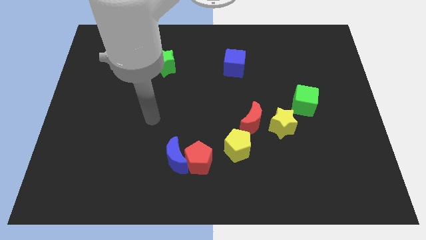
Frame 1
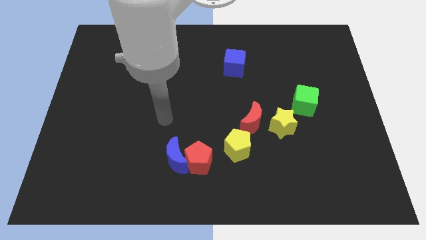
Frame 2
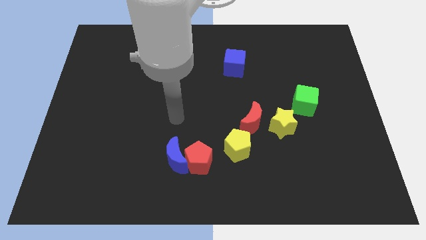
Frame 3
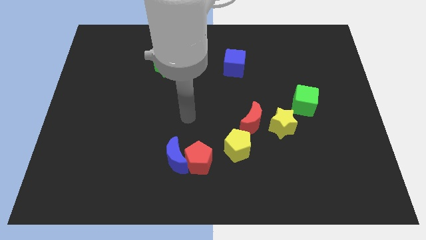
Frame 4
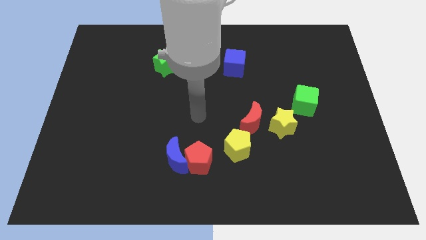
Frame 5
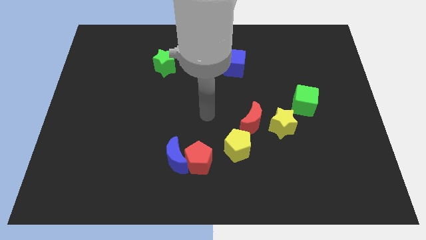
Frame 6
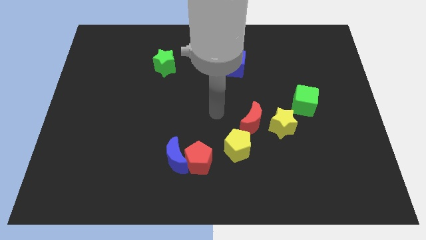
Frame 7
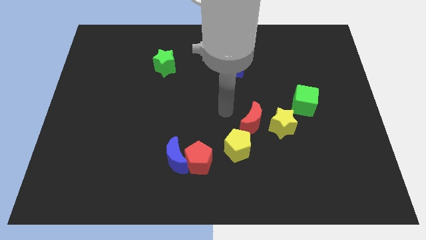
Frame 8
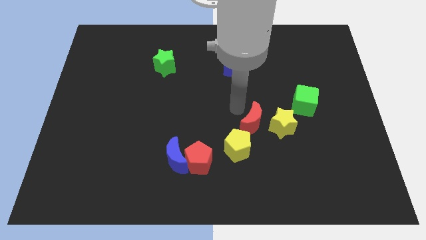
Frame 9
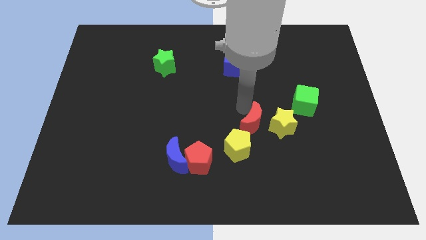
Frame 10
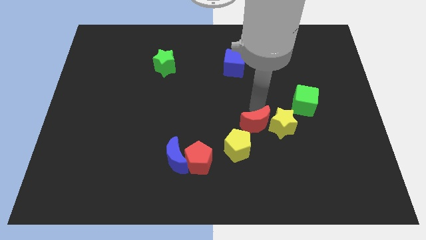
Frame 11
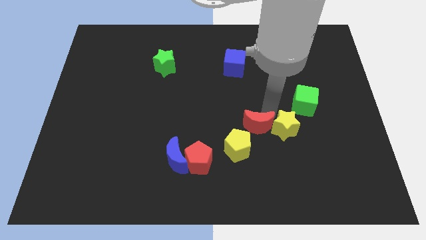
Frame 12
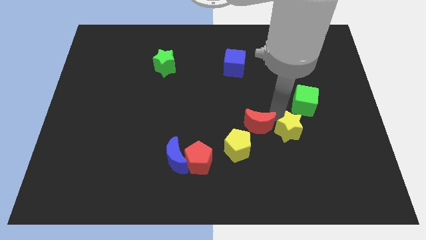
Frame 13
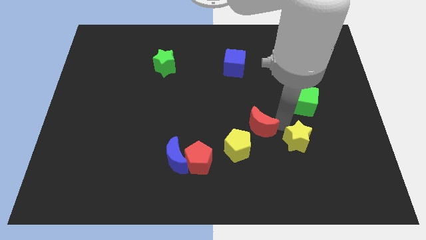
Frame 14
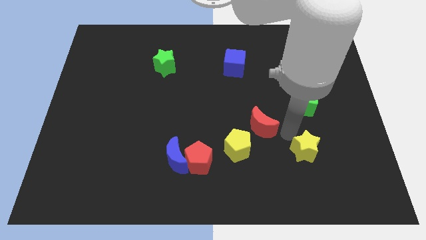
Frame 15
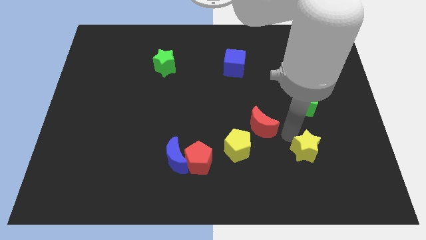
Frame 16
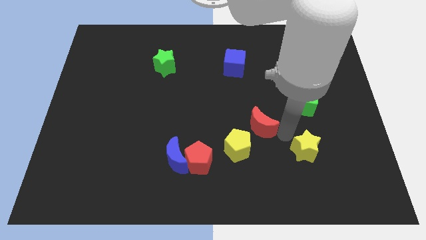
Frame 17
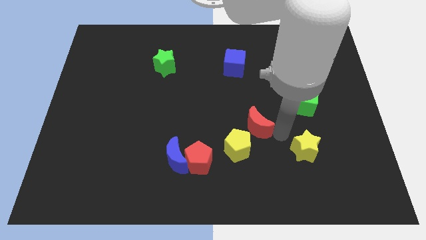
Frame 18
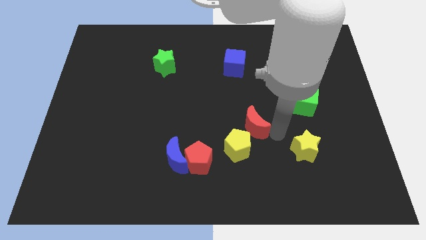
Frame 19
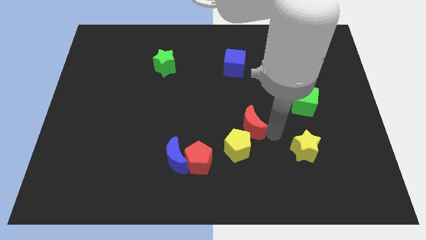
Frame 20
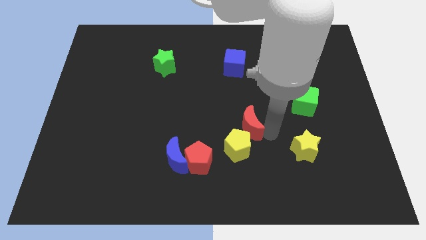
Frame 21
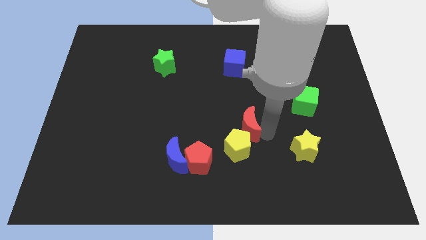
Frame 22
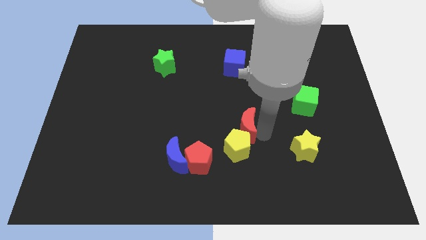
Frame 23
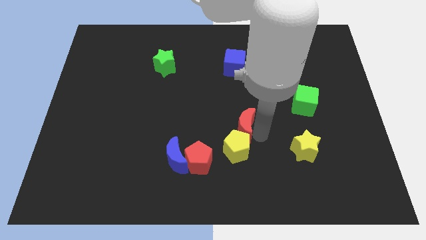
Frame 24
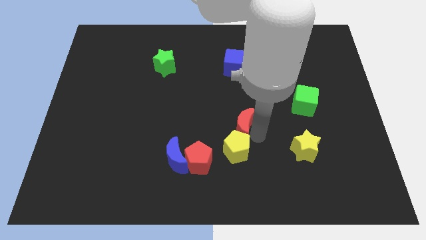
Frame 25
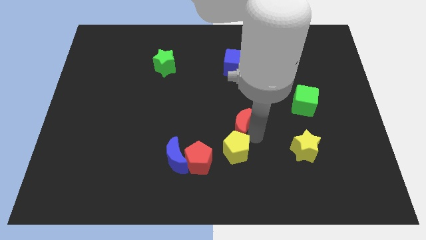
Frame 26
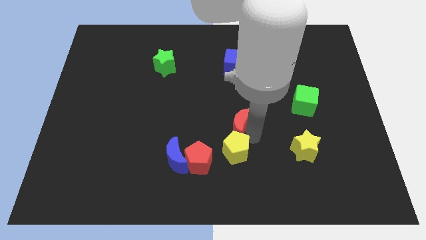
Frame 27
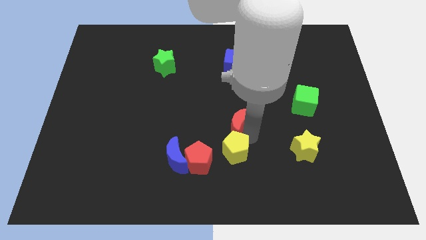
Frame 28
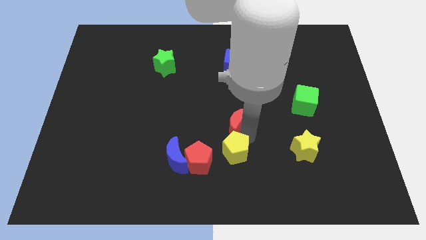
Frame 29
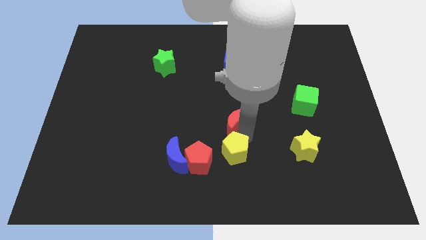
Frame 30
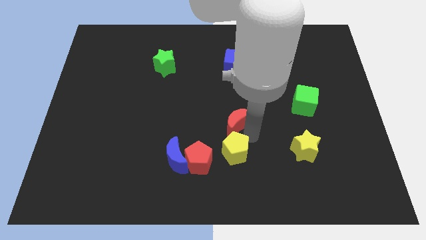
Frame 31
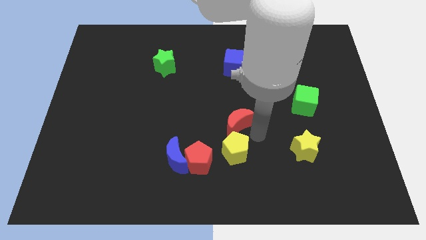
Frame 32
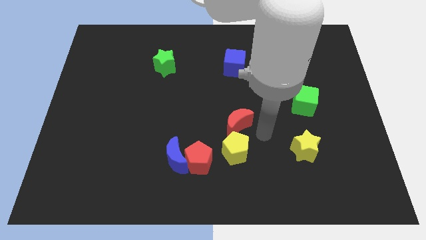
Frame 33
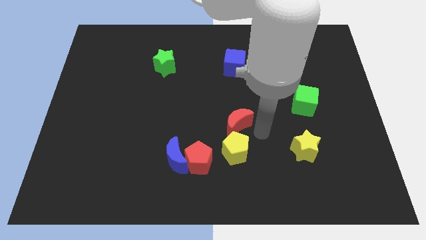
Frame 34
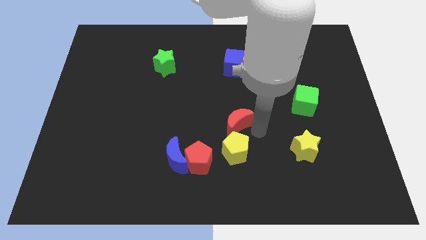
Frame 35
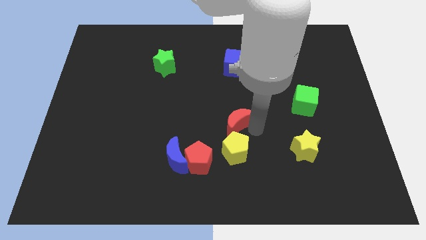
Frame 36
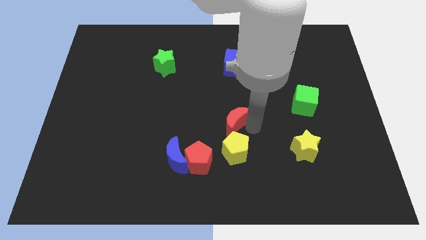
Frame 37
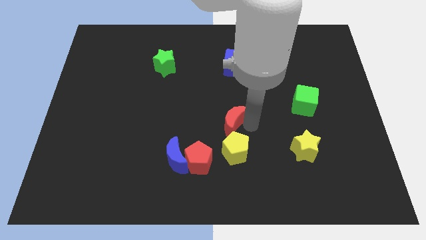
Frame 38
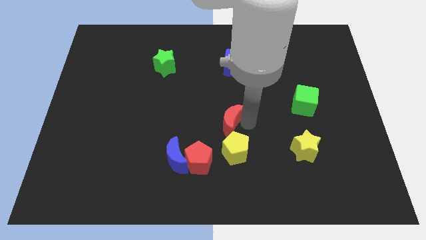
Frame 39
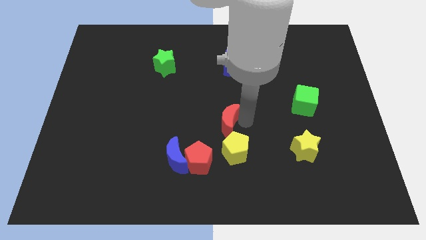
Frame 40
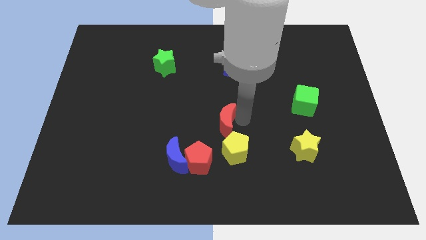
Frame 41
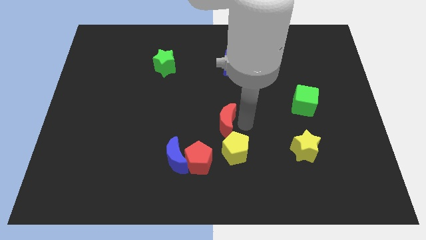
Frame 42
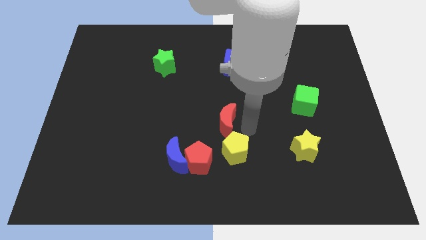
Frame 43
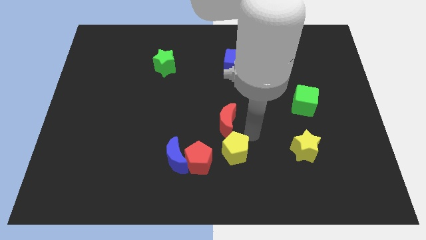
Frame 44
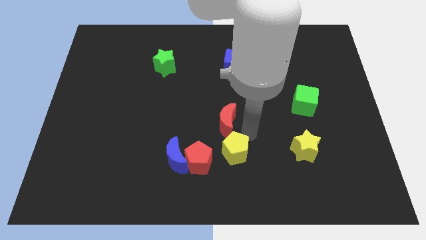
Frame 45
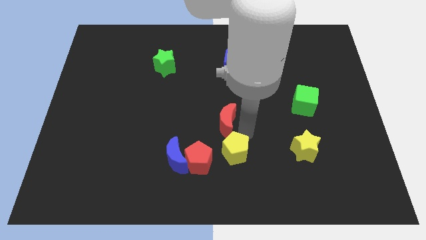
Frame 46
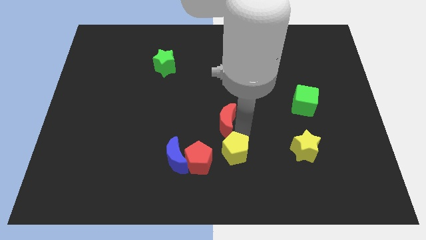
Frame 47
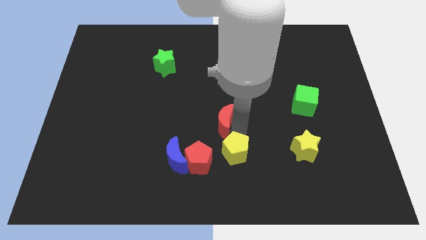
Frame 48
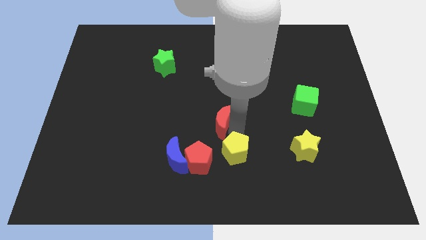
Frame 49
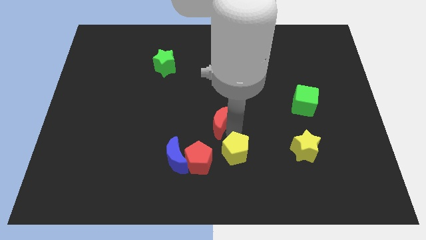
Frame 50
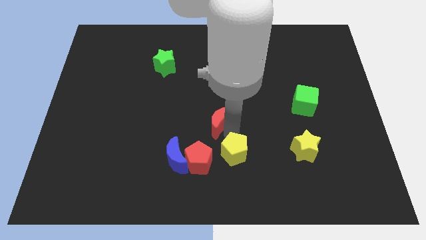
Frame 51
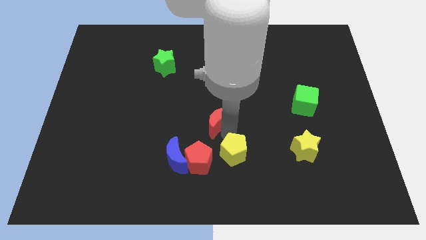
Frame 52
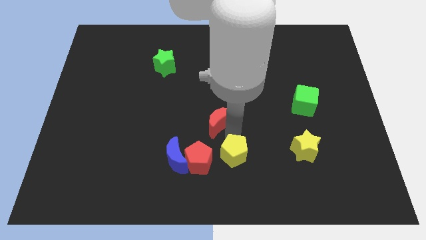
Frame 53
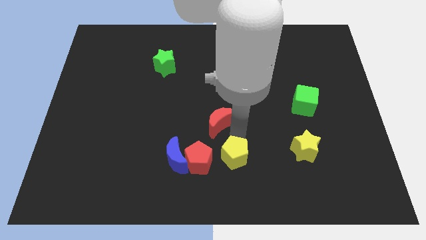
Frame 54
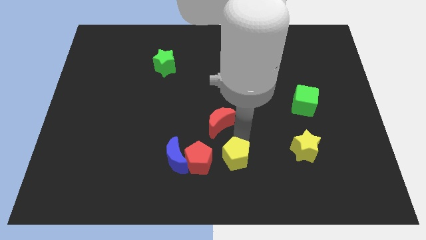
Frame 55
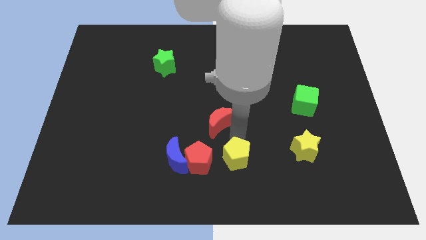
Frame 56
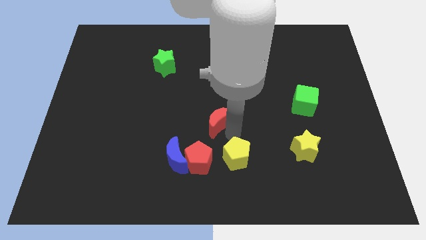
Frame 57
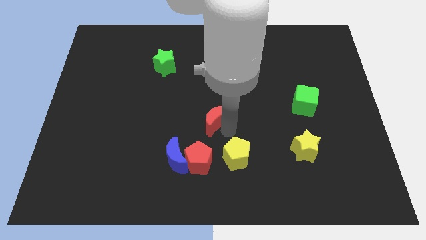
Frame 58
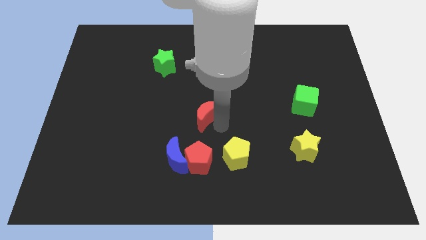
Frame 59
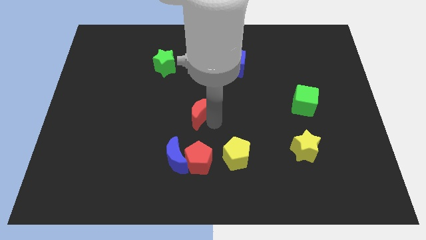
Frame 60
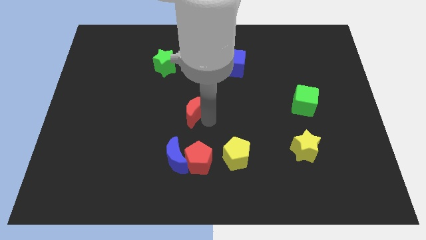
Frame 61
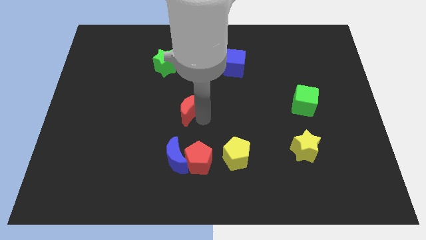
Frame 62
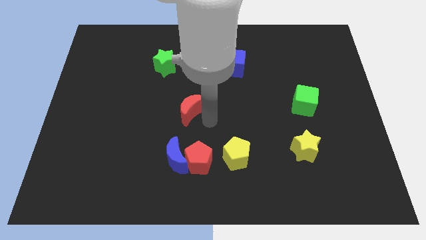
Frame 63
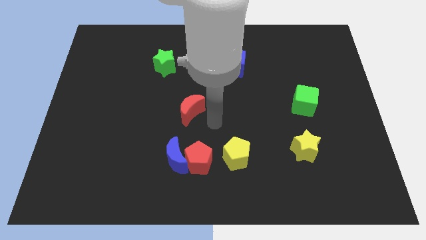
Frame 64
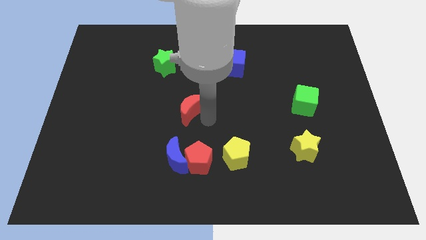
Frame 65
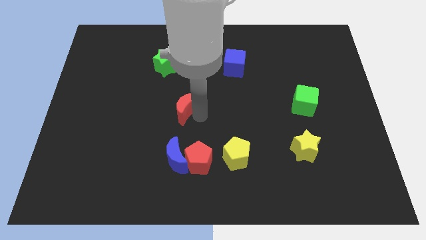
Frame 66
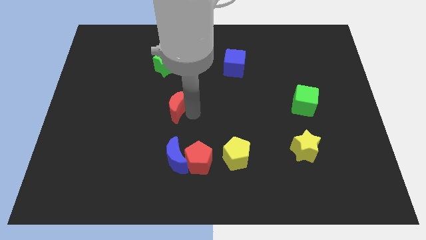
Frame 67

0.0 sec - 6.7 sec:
push the red moon to the bottom of the green star

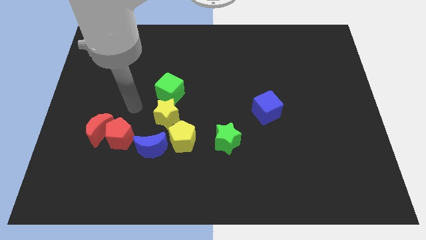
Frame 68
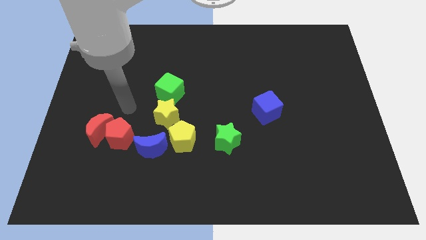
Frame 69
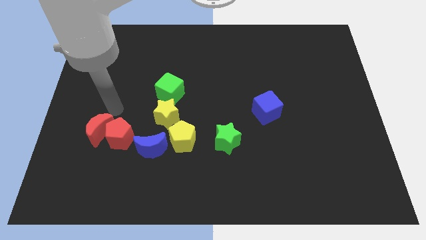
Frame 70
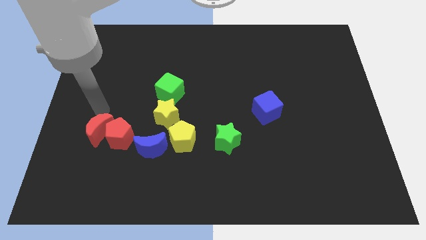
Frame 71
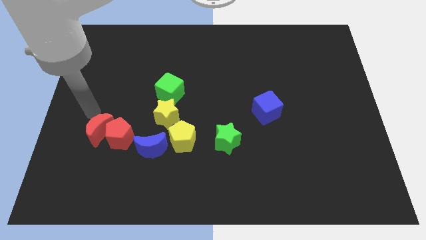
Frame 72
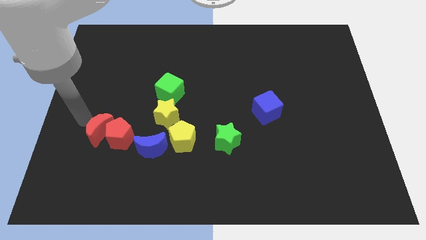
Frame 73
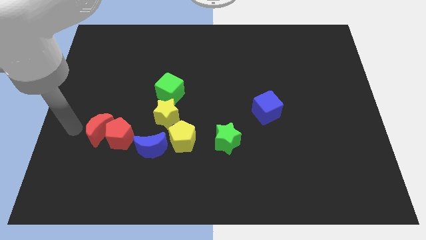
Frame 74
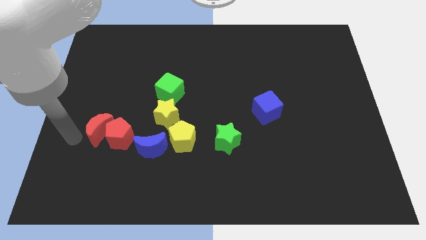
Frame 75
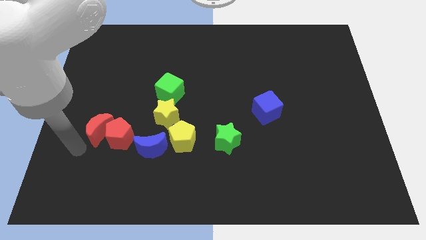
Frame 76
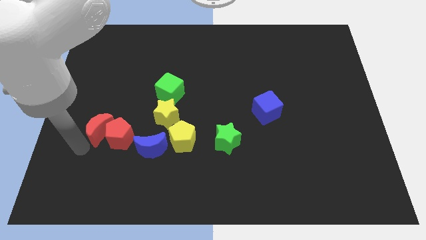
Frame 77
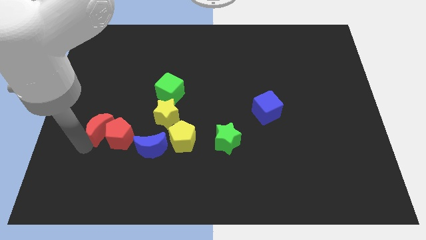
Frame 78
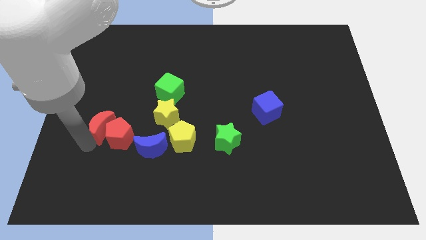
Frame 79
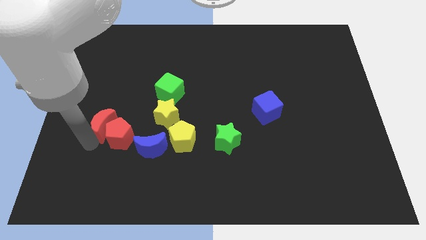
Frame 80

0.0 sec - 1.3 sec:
slide the red moon to the top side of the red pentagon
